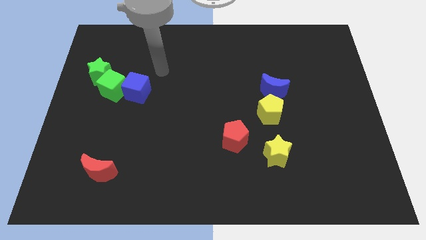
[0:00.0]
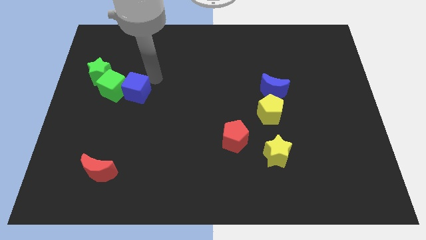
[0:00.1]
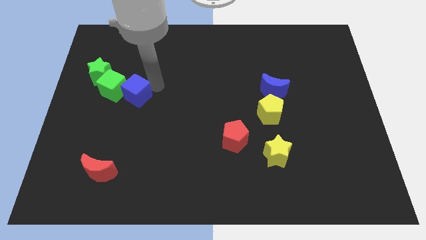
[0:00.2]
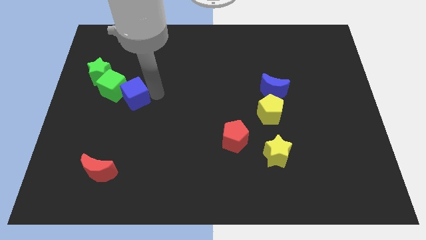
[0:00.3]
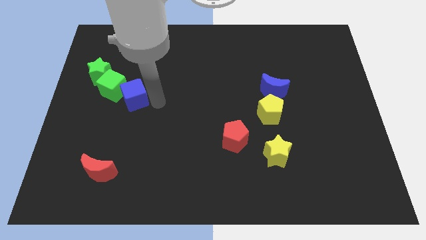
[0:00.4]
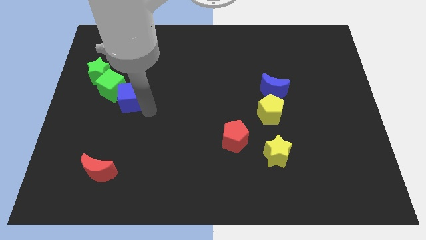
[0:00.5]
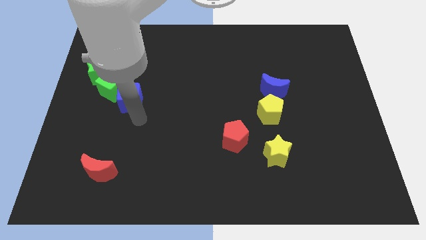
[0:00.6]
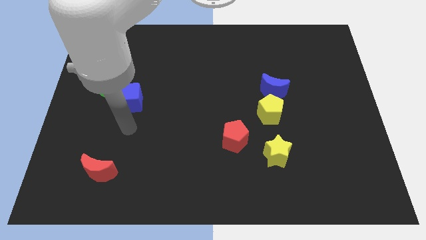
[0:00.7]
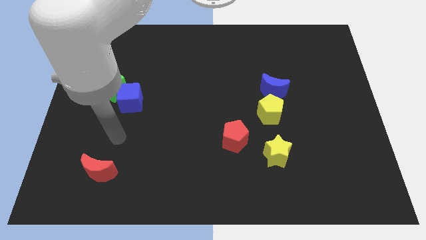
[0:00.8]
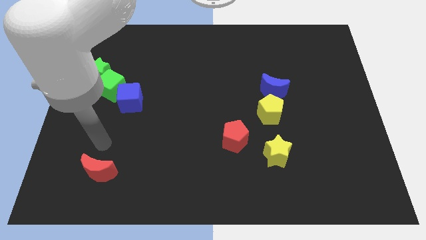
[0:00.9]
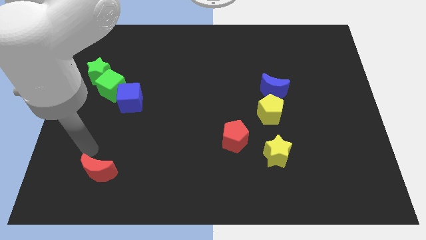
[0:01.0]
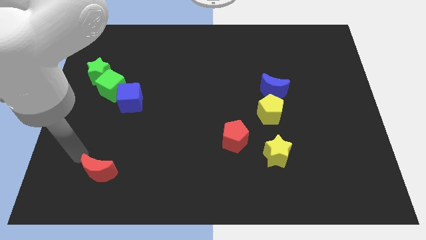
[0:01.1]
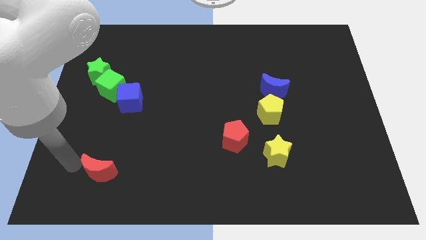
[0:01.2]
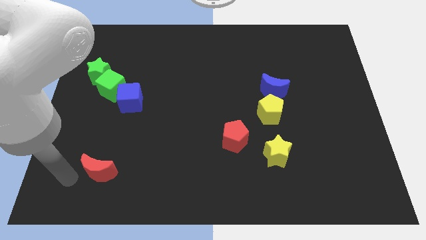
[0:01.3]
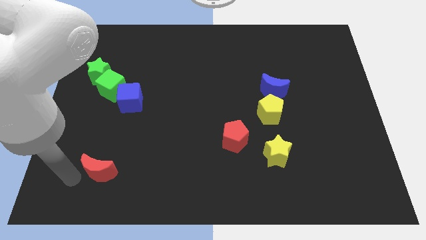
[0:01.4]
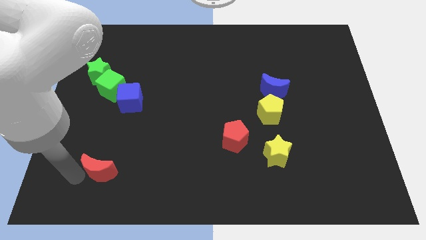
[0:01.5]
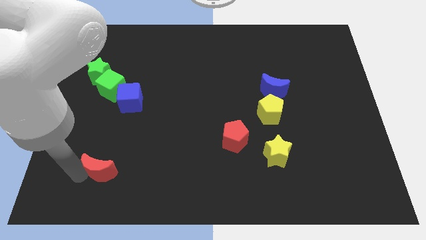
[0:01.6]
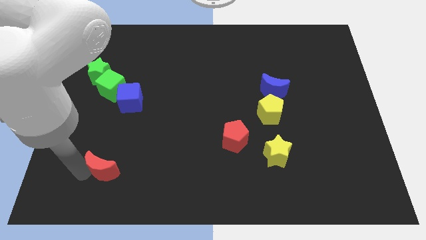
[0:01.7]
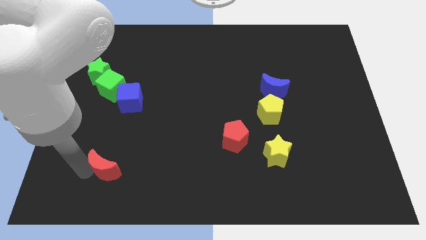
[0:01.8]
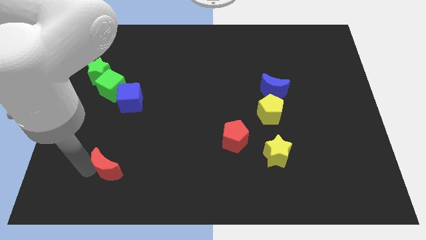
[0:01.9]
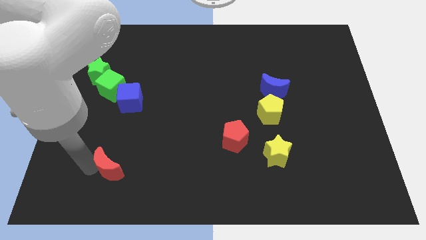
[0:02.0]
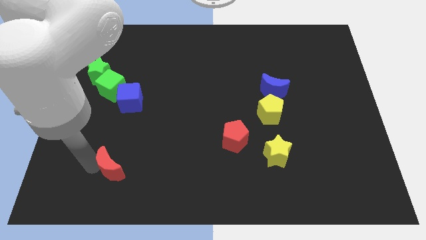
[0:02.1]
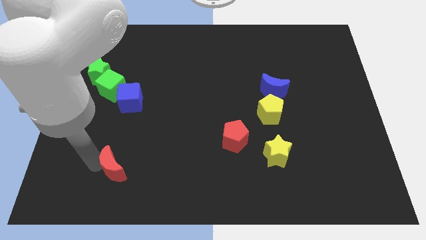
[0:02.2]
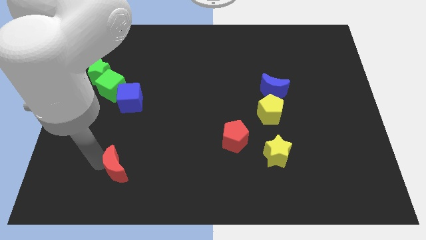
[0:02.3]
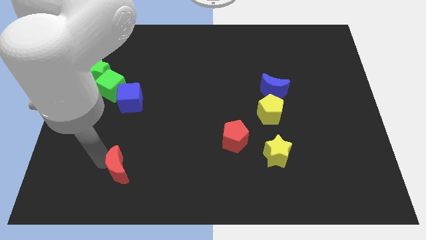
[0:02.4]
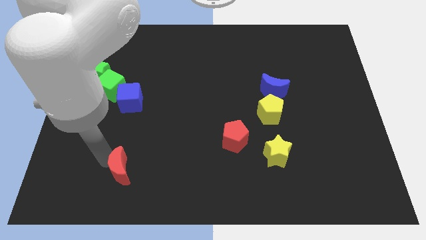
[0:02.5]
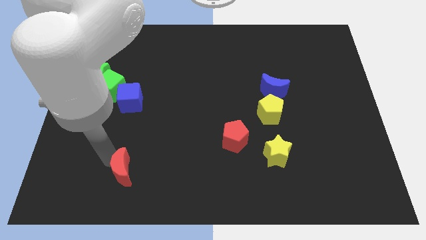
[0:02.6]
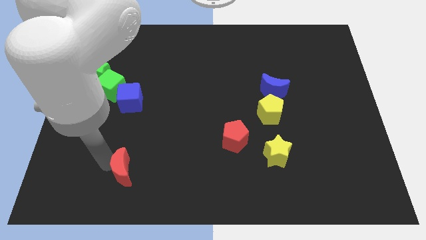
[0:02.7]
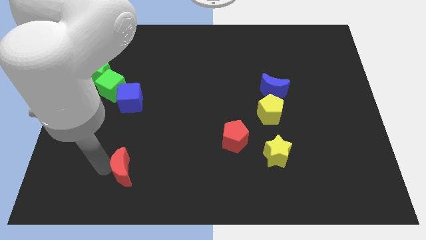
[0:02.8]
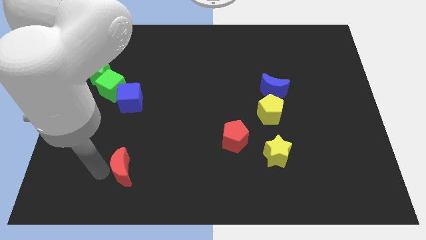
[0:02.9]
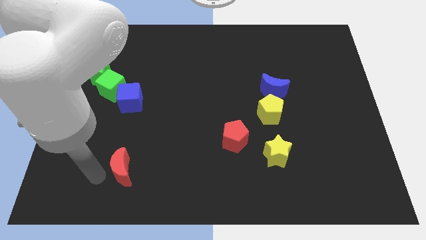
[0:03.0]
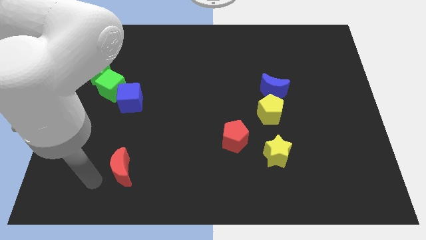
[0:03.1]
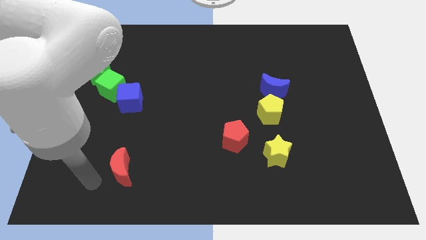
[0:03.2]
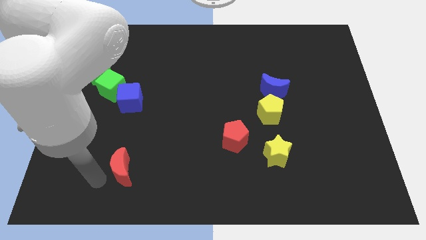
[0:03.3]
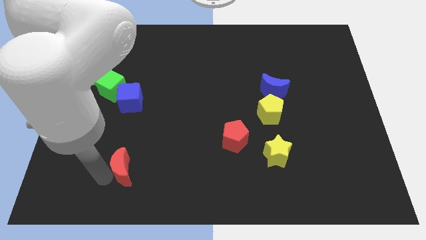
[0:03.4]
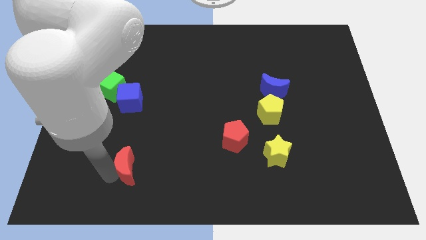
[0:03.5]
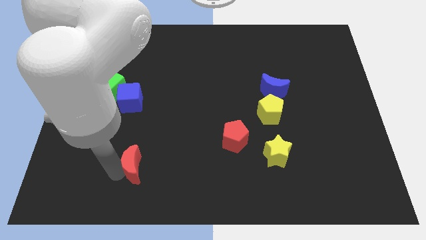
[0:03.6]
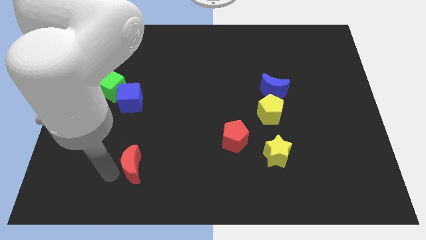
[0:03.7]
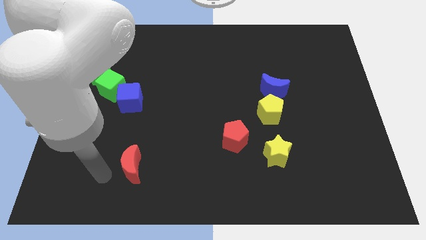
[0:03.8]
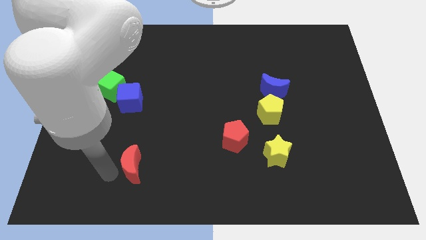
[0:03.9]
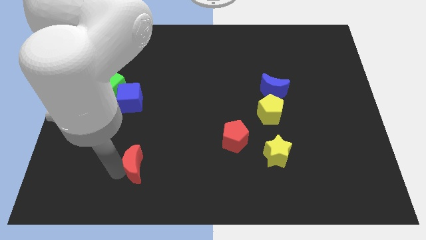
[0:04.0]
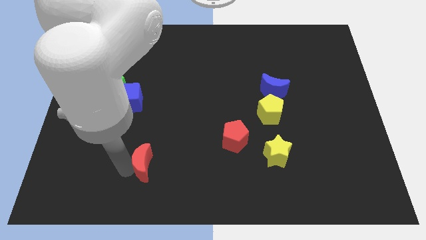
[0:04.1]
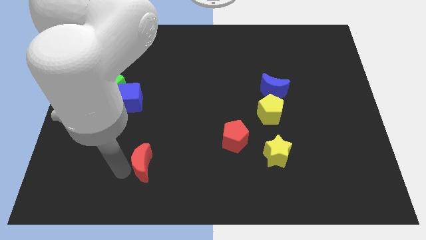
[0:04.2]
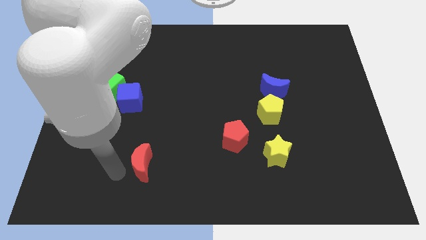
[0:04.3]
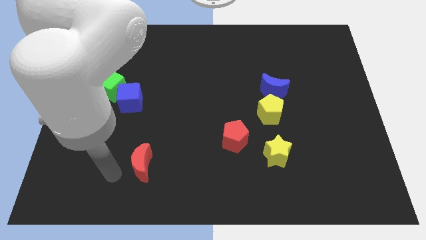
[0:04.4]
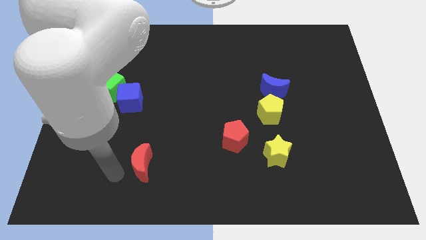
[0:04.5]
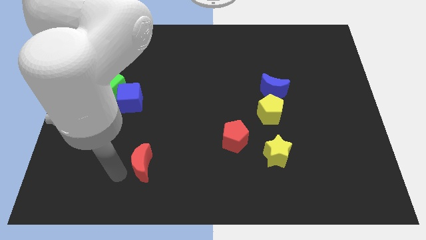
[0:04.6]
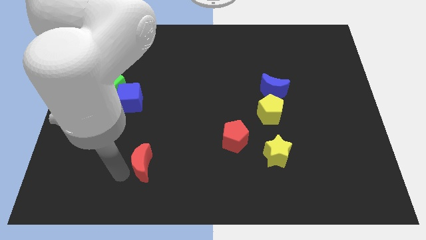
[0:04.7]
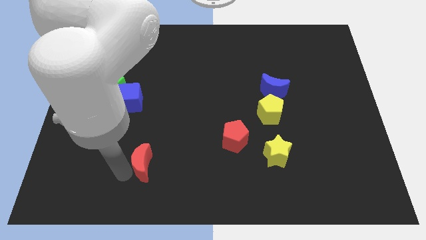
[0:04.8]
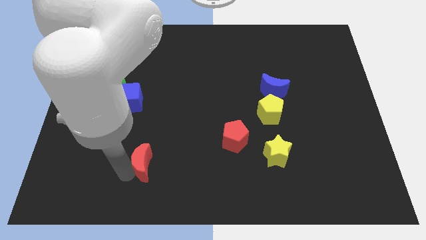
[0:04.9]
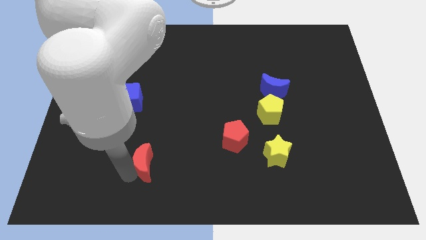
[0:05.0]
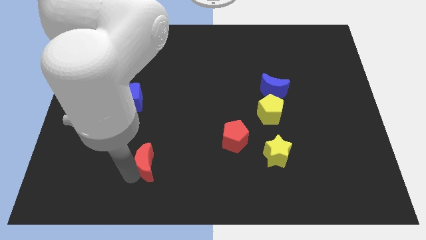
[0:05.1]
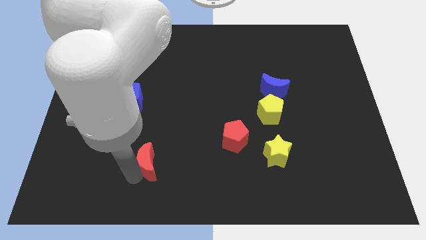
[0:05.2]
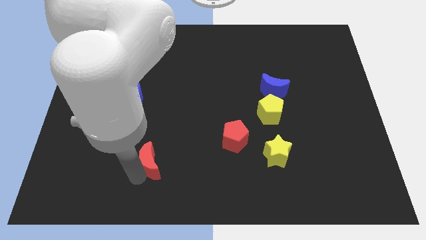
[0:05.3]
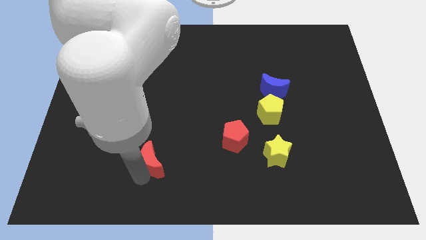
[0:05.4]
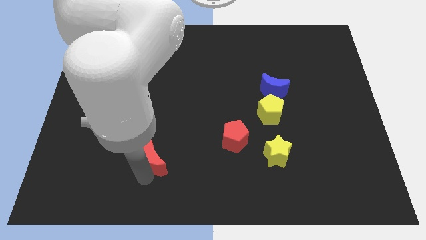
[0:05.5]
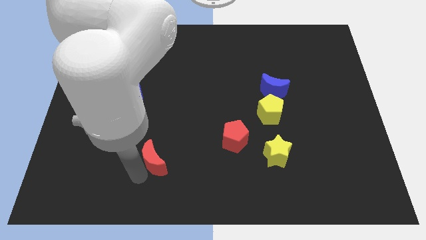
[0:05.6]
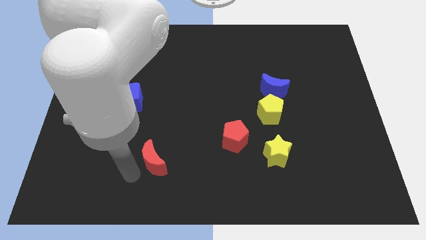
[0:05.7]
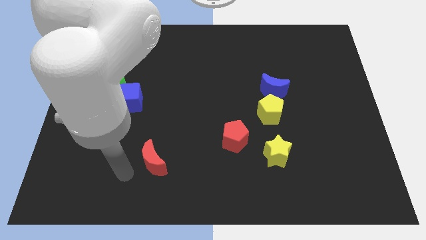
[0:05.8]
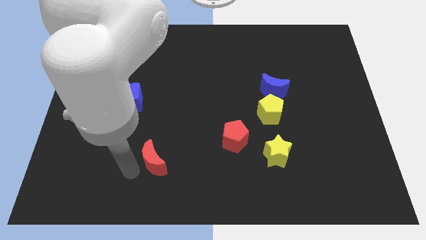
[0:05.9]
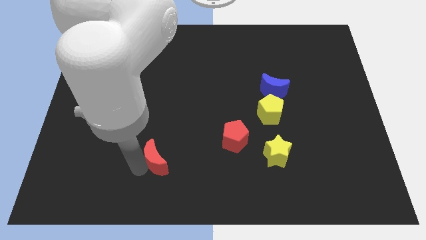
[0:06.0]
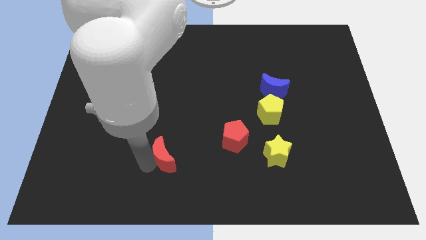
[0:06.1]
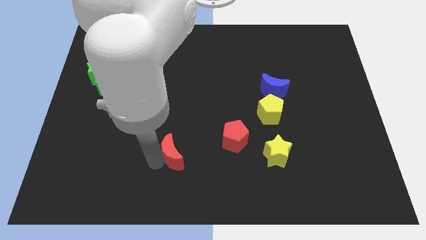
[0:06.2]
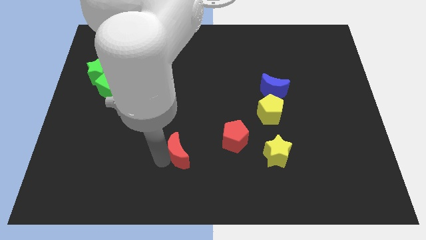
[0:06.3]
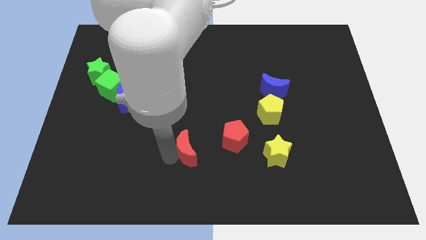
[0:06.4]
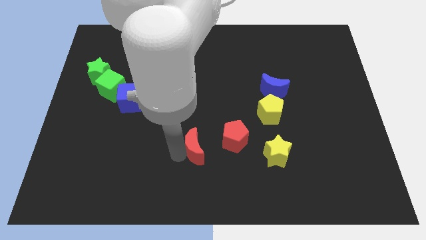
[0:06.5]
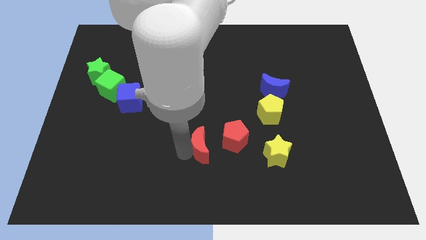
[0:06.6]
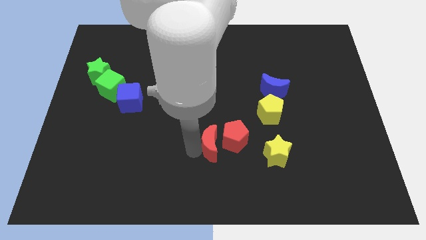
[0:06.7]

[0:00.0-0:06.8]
move the red moon towards the red pentagon
